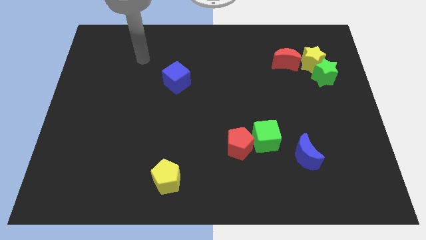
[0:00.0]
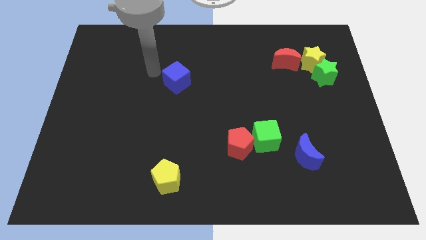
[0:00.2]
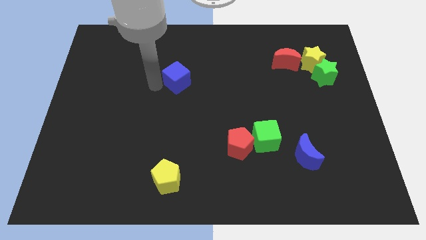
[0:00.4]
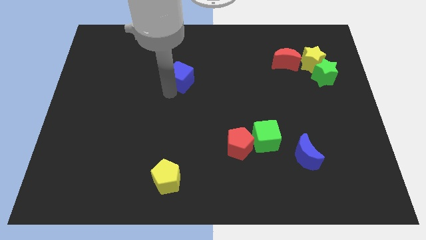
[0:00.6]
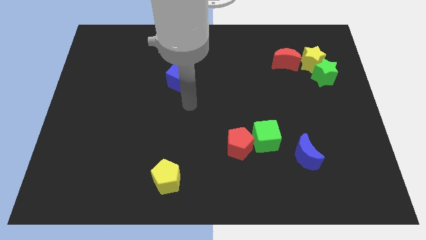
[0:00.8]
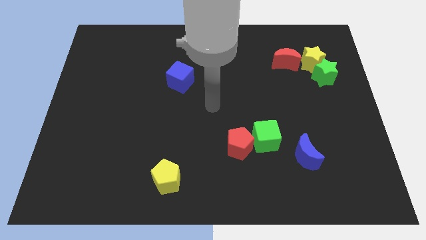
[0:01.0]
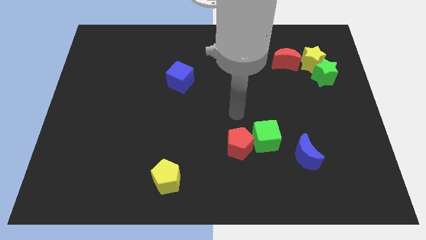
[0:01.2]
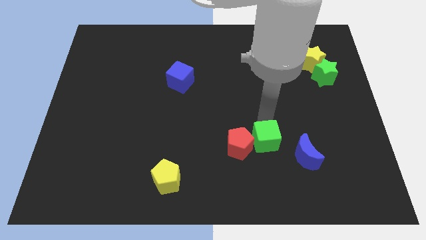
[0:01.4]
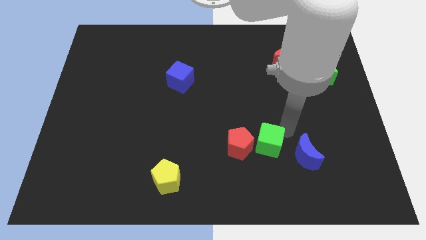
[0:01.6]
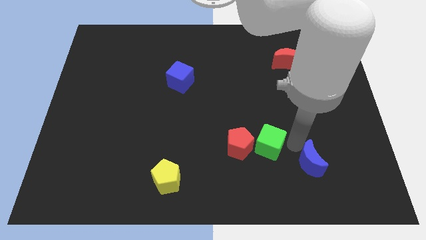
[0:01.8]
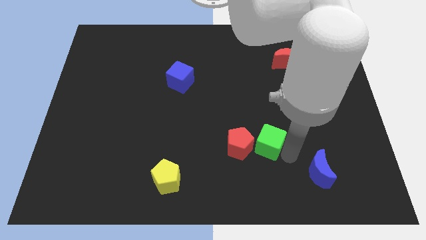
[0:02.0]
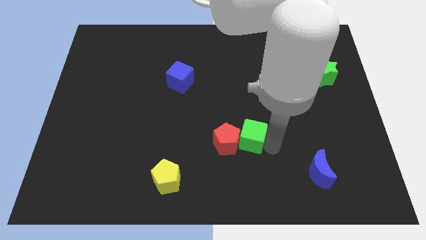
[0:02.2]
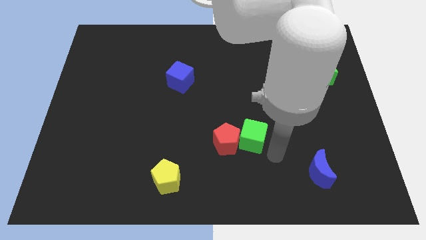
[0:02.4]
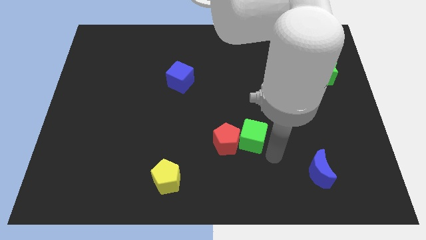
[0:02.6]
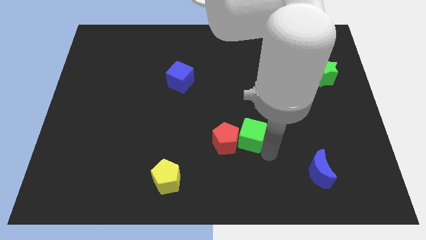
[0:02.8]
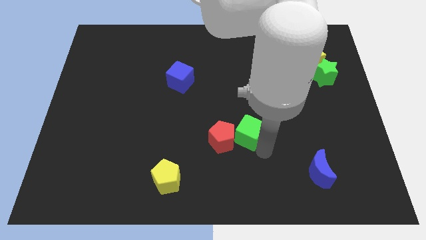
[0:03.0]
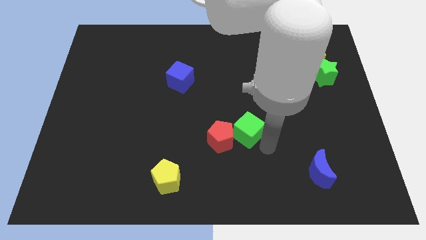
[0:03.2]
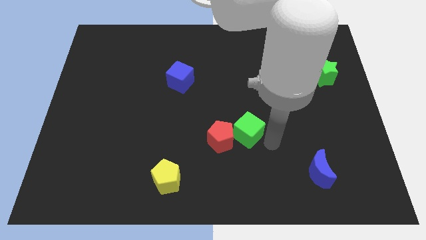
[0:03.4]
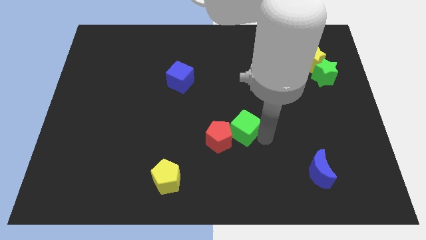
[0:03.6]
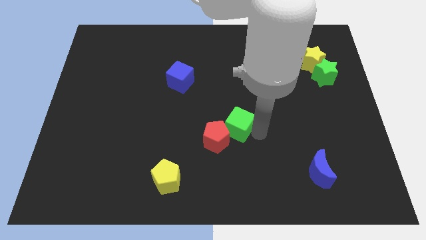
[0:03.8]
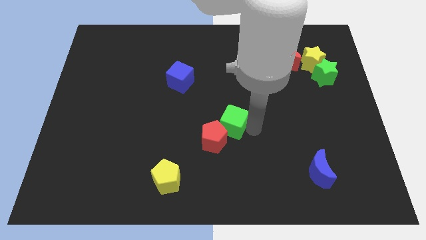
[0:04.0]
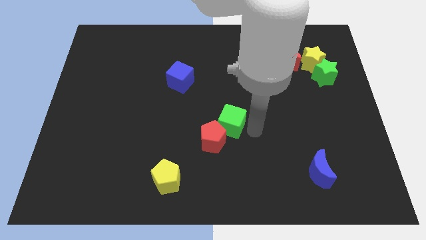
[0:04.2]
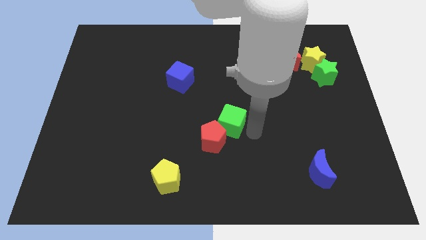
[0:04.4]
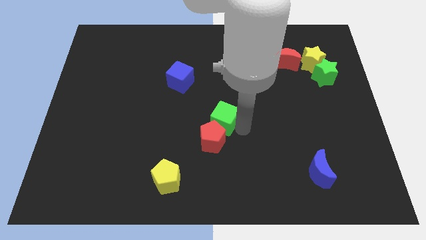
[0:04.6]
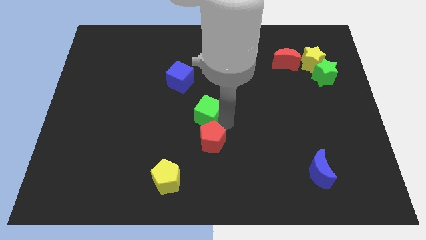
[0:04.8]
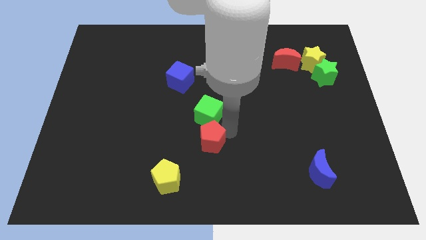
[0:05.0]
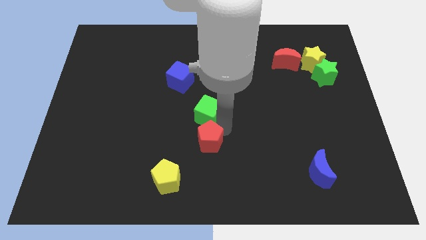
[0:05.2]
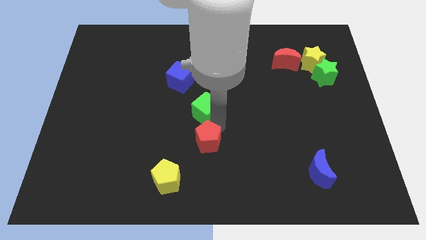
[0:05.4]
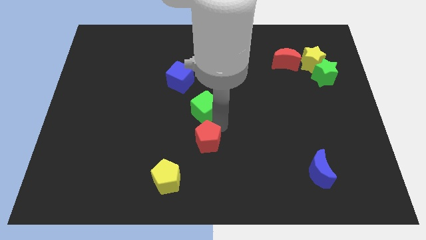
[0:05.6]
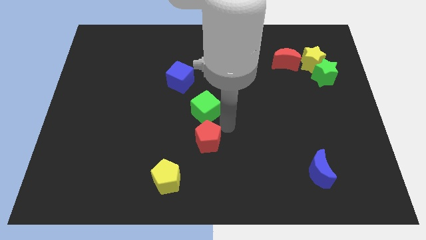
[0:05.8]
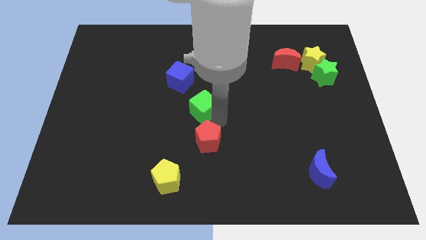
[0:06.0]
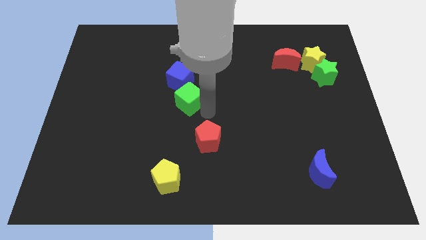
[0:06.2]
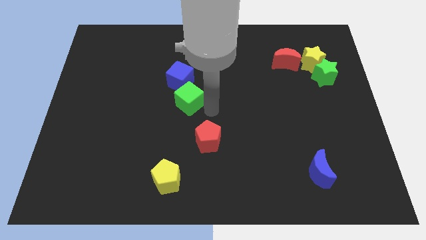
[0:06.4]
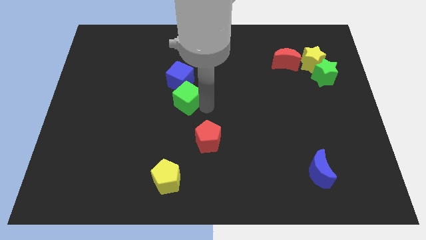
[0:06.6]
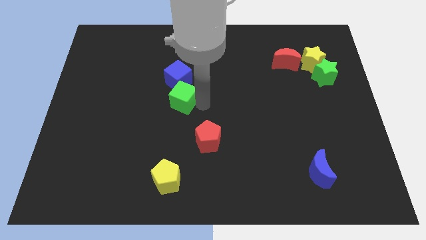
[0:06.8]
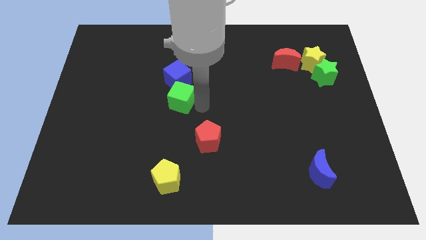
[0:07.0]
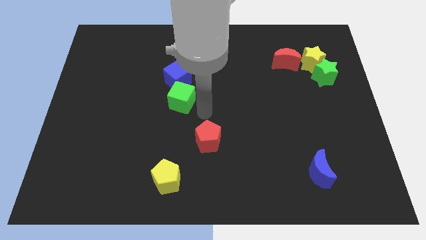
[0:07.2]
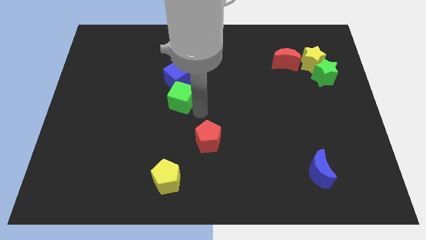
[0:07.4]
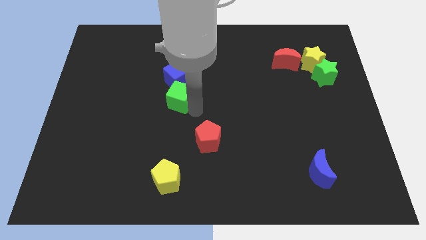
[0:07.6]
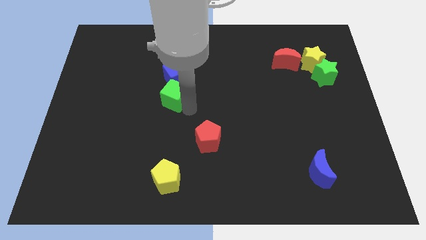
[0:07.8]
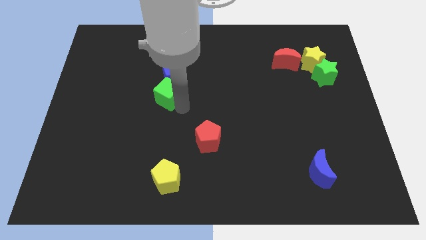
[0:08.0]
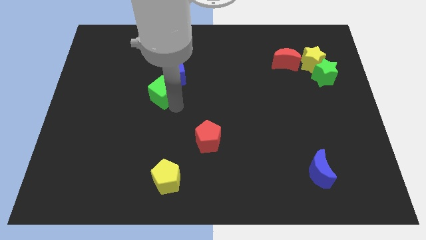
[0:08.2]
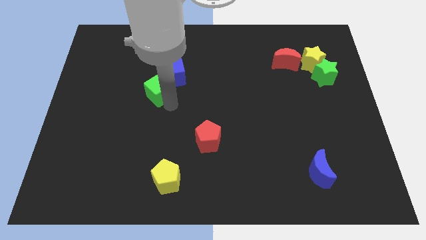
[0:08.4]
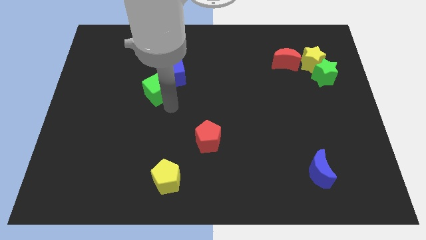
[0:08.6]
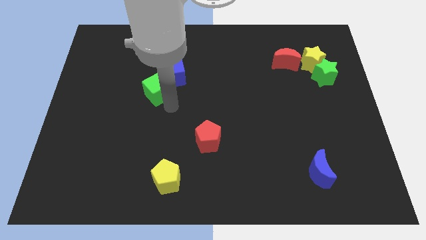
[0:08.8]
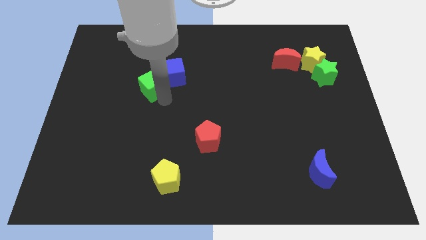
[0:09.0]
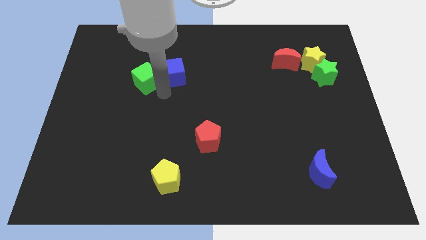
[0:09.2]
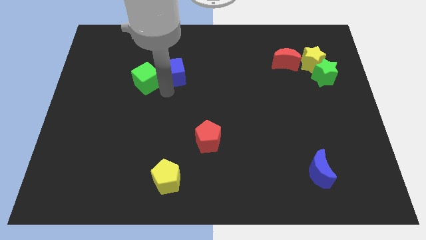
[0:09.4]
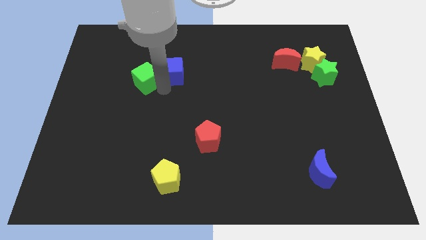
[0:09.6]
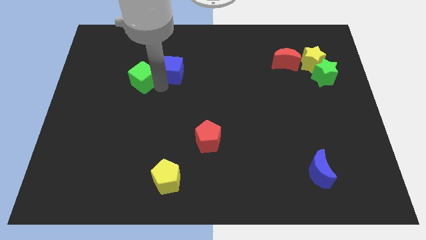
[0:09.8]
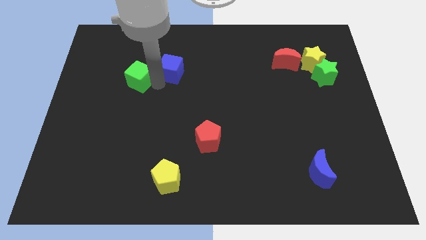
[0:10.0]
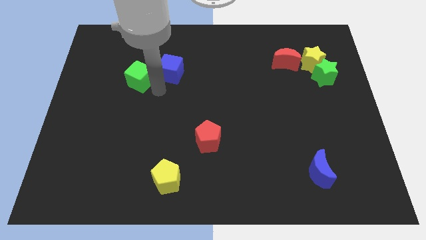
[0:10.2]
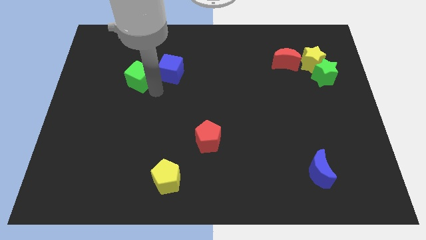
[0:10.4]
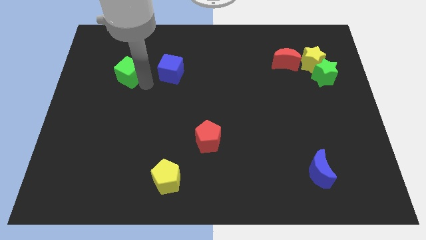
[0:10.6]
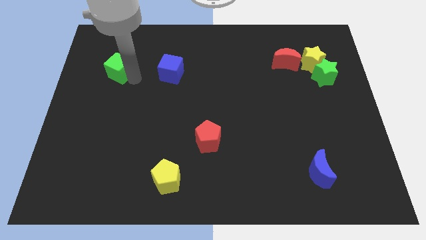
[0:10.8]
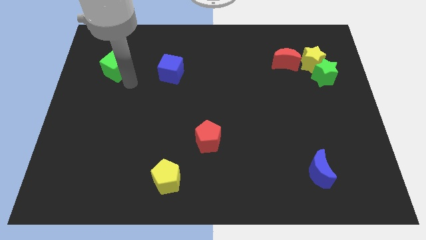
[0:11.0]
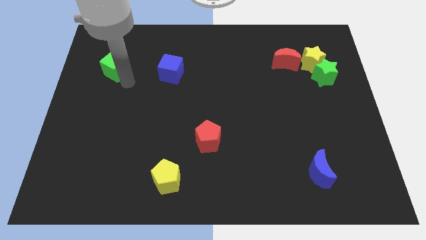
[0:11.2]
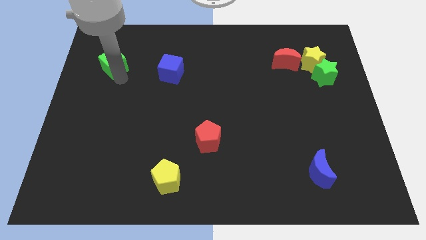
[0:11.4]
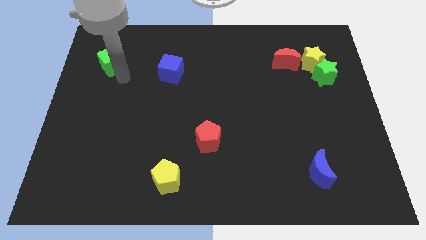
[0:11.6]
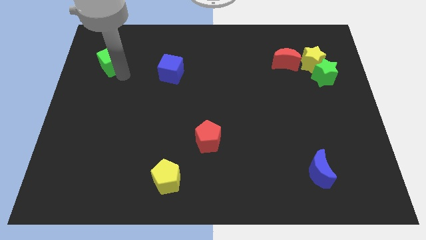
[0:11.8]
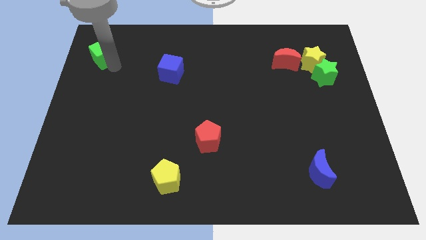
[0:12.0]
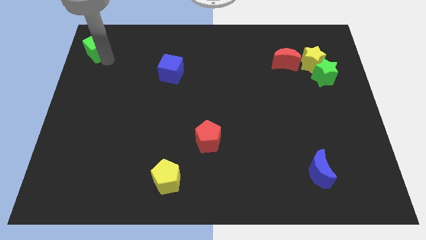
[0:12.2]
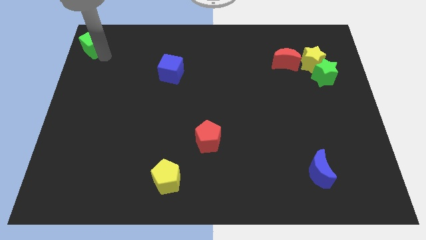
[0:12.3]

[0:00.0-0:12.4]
slide the green cube to the top left
